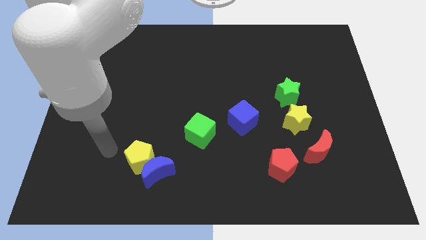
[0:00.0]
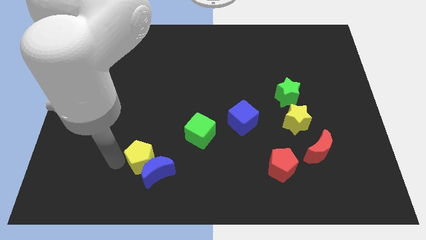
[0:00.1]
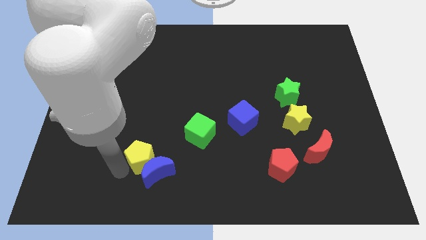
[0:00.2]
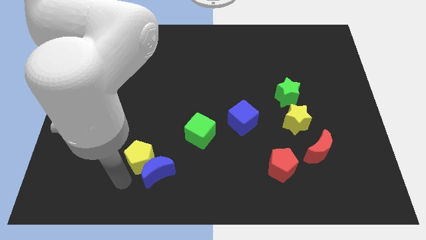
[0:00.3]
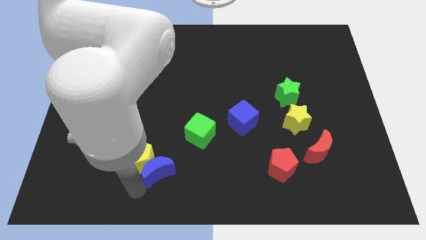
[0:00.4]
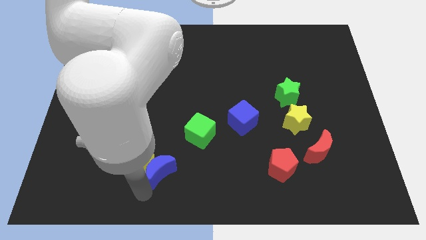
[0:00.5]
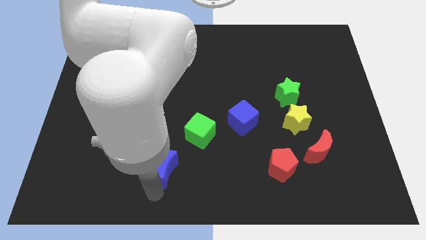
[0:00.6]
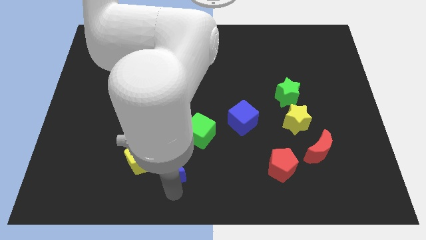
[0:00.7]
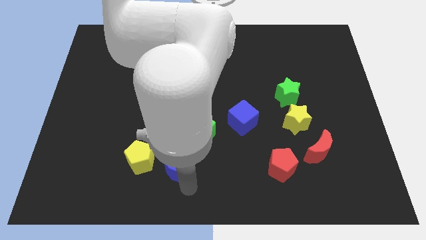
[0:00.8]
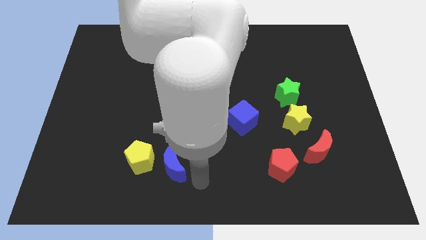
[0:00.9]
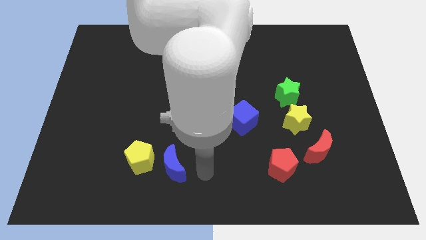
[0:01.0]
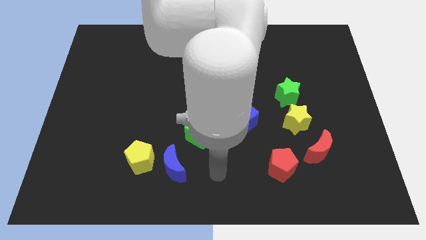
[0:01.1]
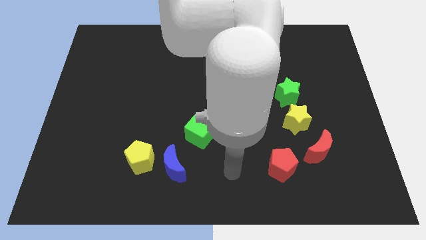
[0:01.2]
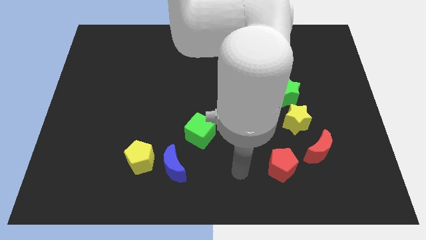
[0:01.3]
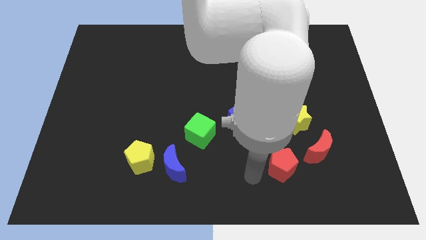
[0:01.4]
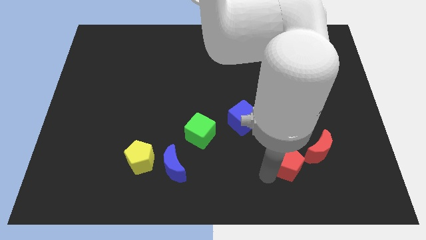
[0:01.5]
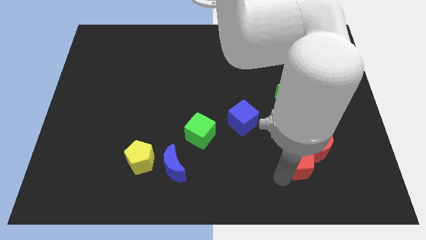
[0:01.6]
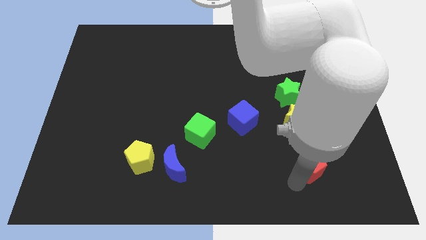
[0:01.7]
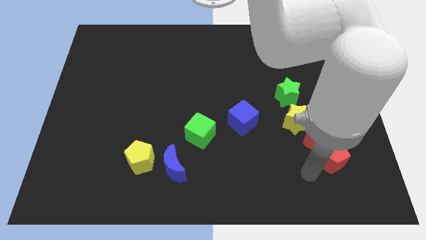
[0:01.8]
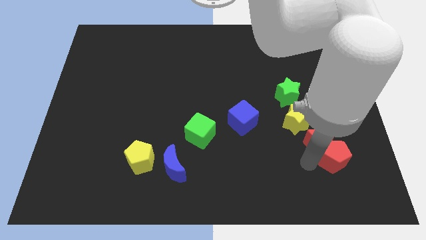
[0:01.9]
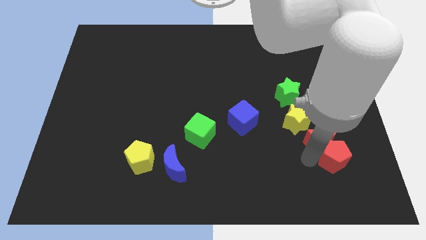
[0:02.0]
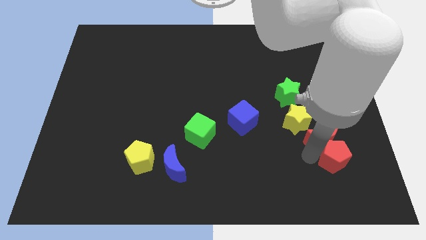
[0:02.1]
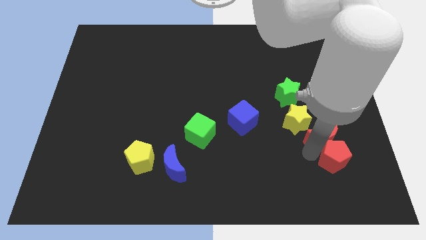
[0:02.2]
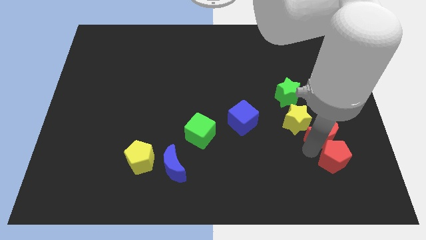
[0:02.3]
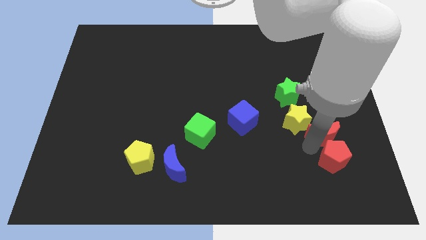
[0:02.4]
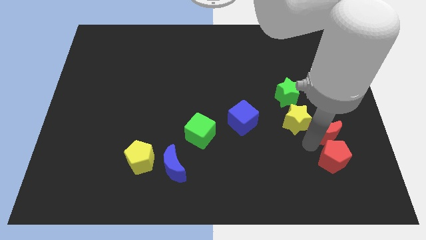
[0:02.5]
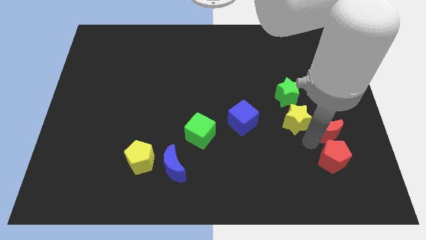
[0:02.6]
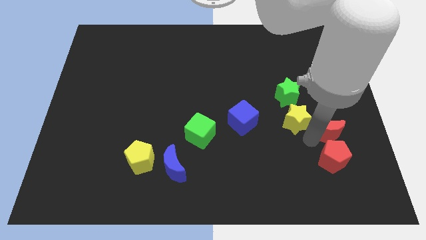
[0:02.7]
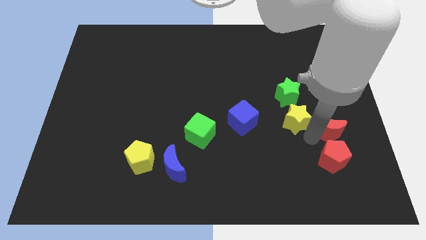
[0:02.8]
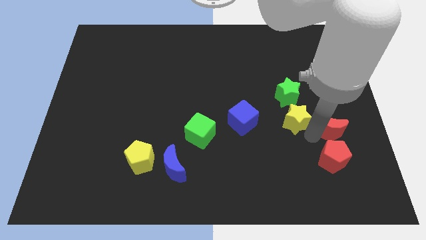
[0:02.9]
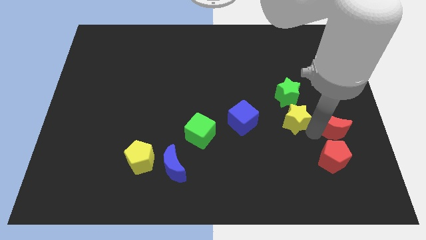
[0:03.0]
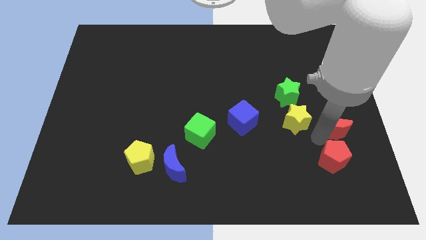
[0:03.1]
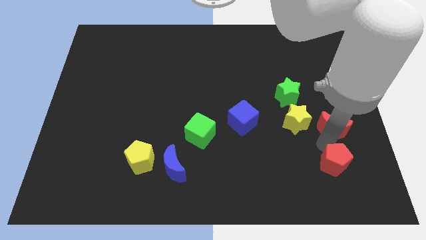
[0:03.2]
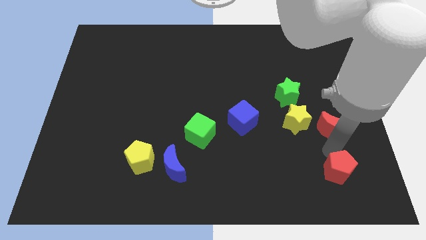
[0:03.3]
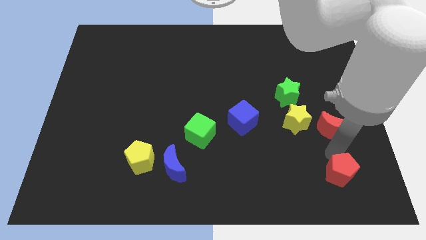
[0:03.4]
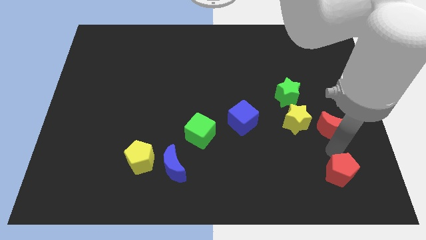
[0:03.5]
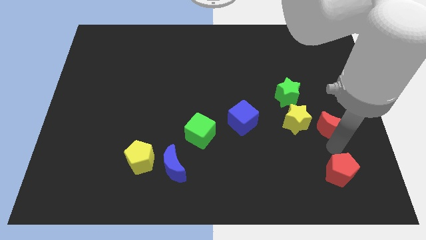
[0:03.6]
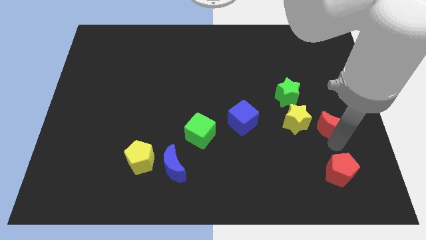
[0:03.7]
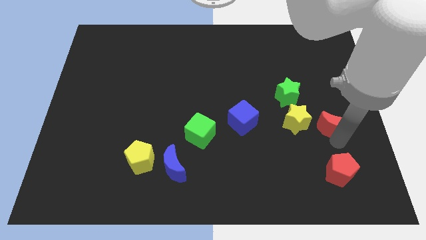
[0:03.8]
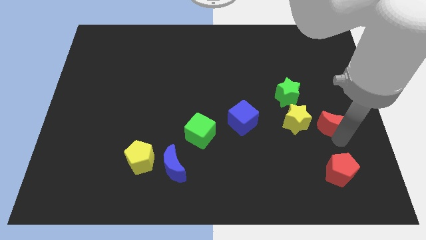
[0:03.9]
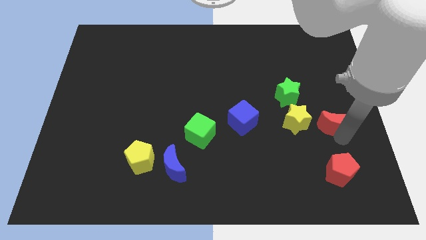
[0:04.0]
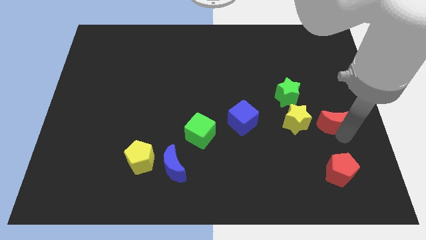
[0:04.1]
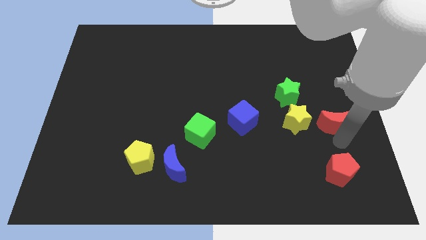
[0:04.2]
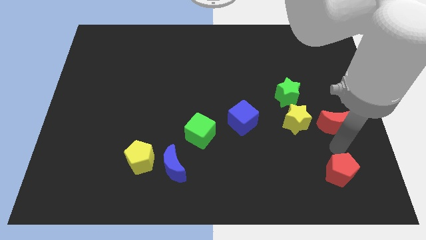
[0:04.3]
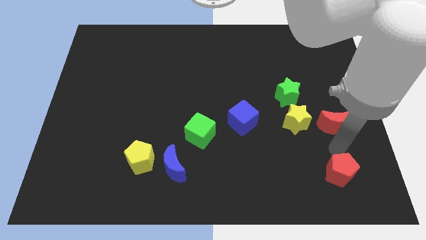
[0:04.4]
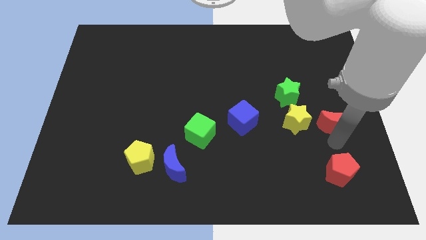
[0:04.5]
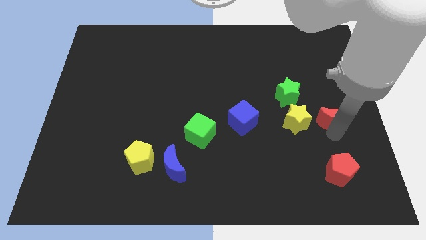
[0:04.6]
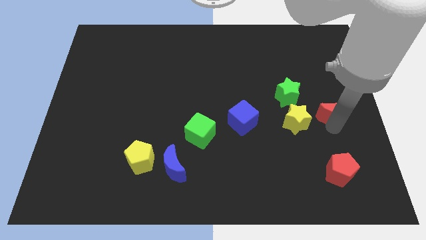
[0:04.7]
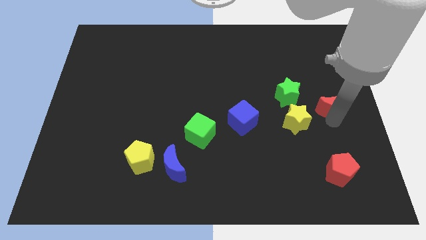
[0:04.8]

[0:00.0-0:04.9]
move the red moon to the right side of the green star

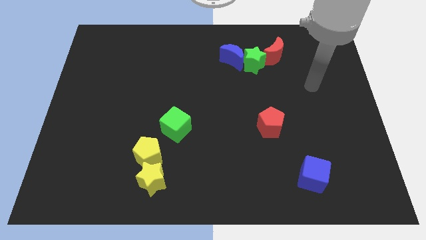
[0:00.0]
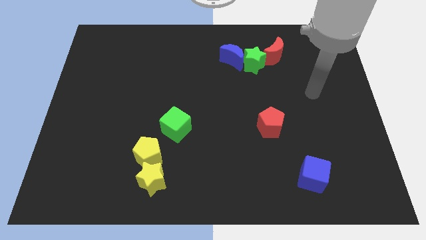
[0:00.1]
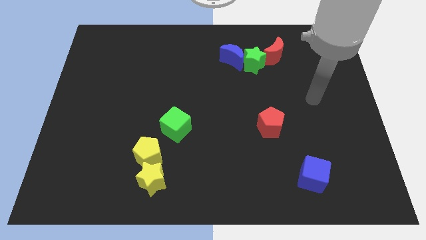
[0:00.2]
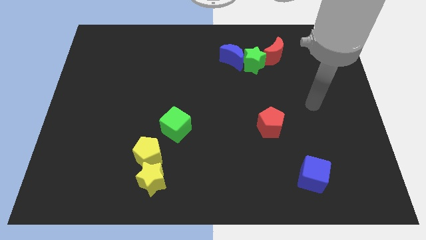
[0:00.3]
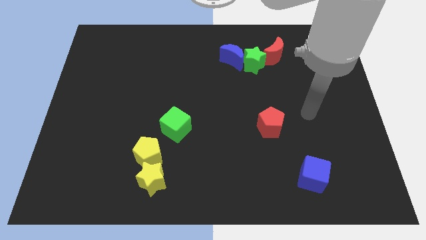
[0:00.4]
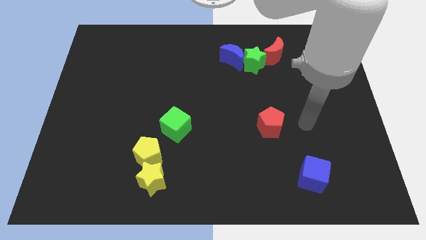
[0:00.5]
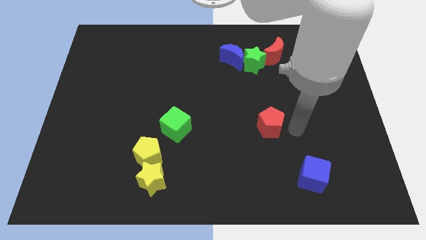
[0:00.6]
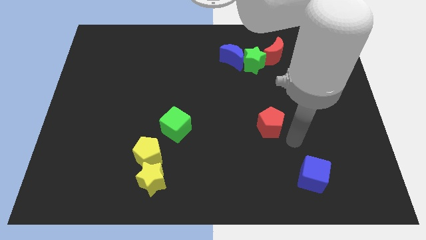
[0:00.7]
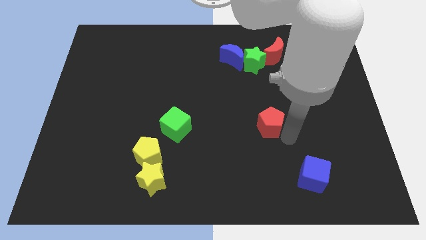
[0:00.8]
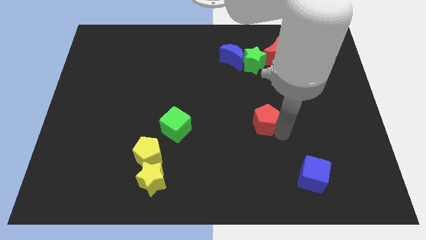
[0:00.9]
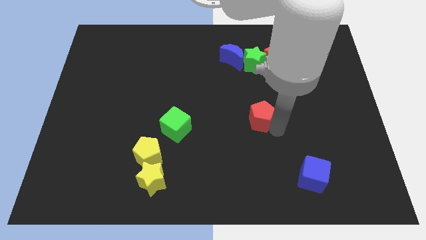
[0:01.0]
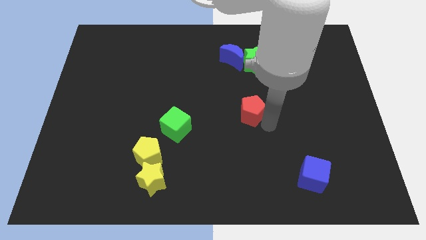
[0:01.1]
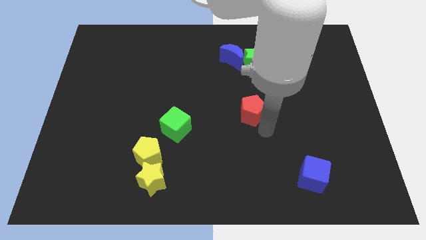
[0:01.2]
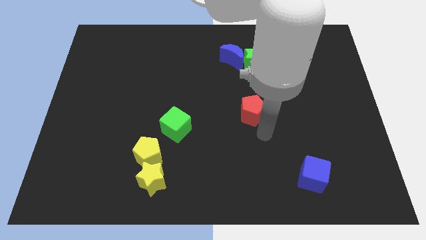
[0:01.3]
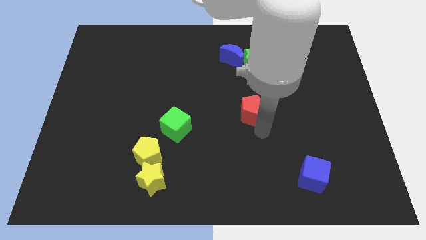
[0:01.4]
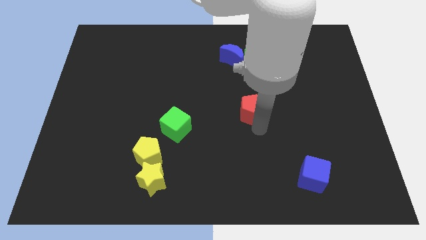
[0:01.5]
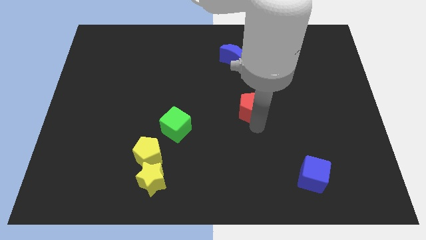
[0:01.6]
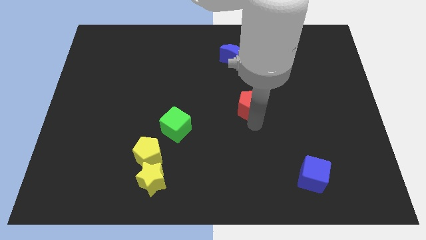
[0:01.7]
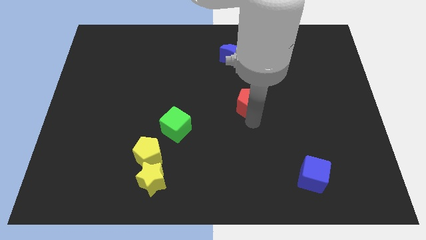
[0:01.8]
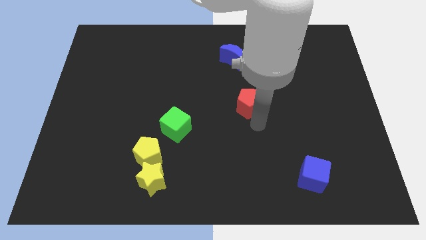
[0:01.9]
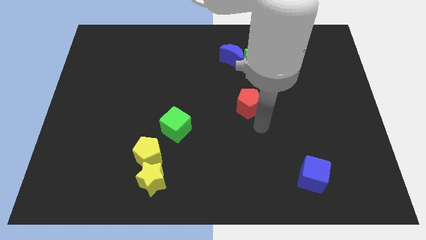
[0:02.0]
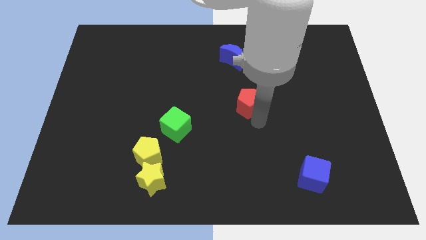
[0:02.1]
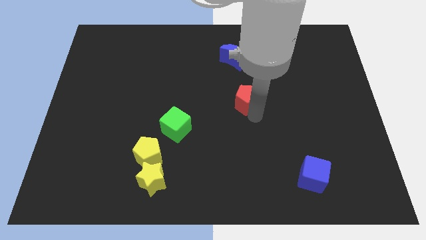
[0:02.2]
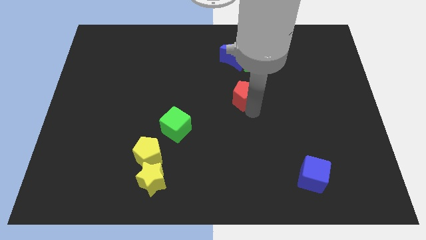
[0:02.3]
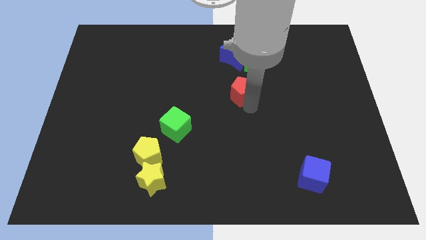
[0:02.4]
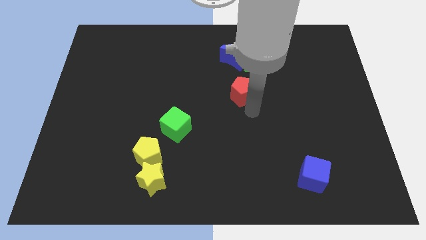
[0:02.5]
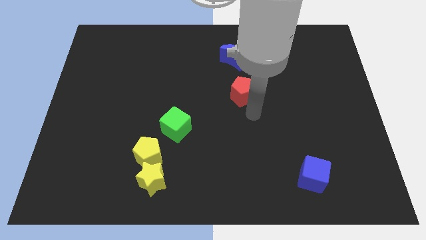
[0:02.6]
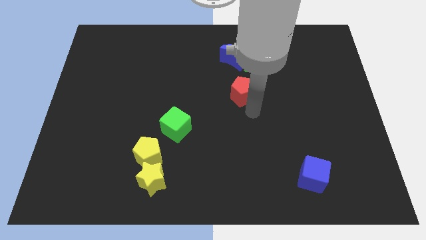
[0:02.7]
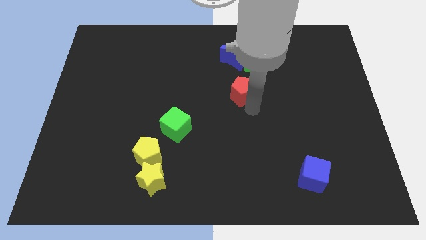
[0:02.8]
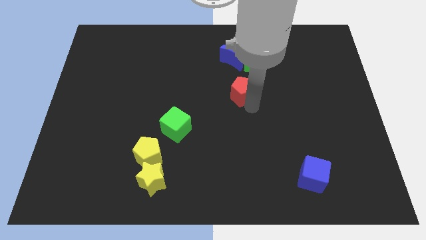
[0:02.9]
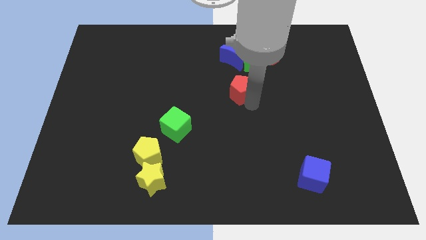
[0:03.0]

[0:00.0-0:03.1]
put the red pentagon diagonally down and to the left of the green star
